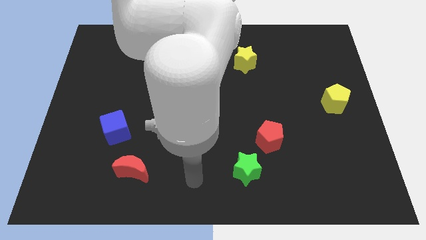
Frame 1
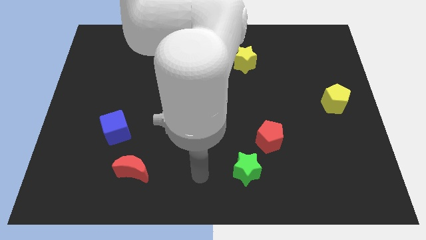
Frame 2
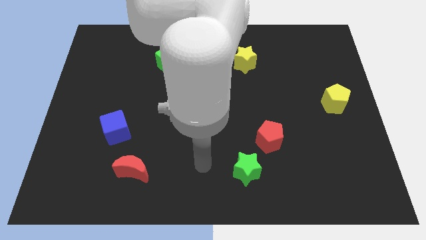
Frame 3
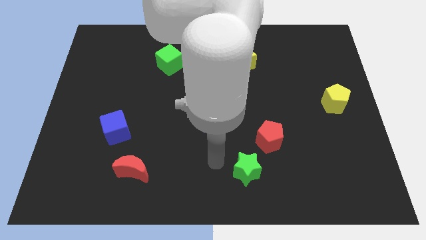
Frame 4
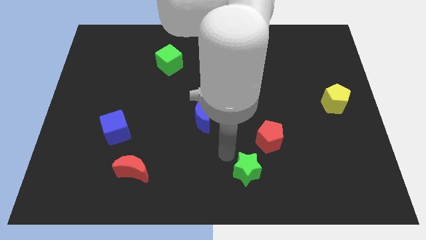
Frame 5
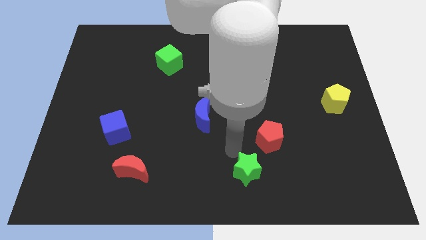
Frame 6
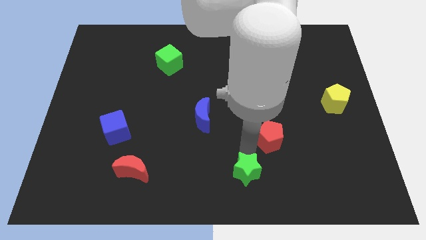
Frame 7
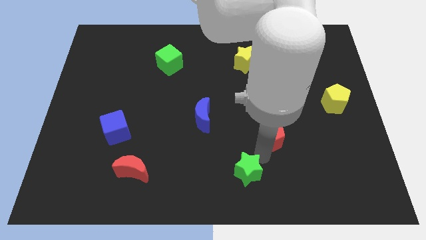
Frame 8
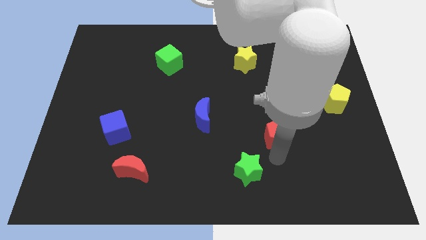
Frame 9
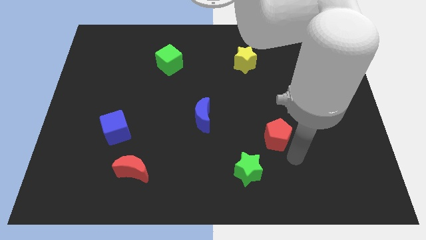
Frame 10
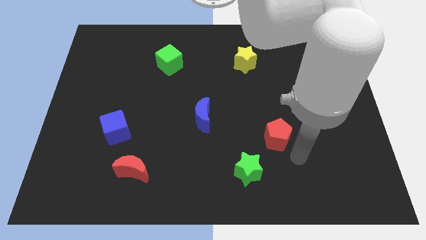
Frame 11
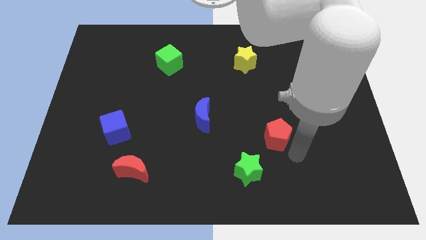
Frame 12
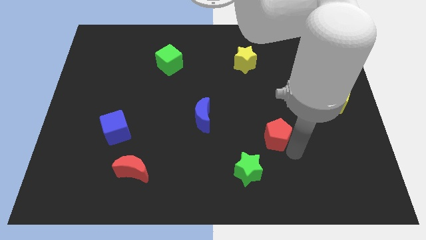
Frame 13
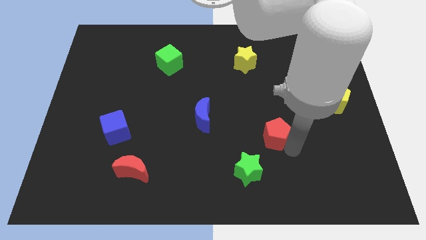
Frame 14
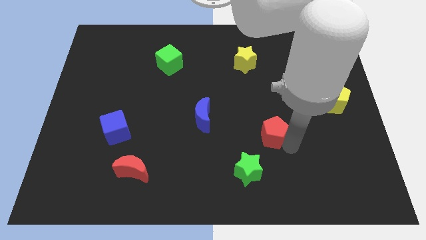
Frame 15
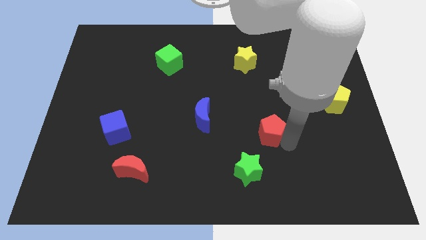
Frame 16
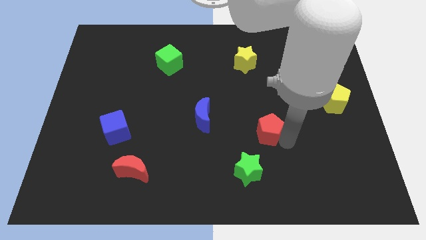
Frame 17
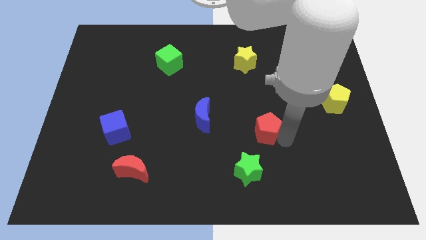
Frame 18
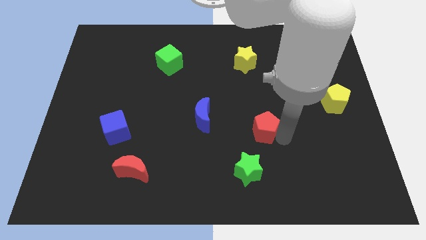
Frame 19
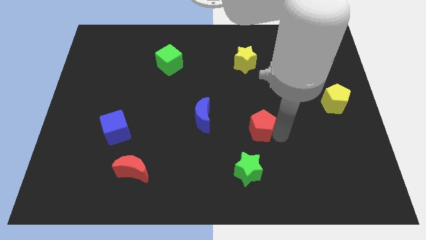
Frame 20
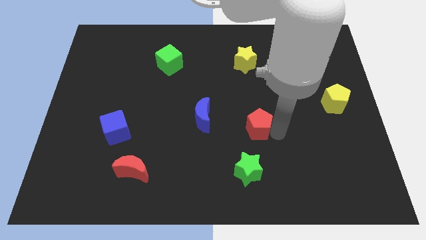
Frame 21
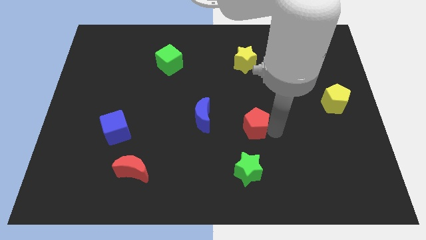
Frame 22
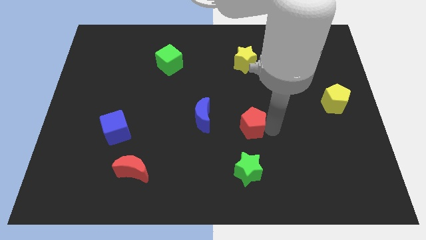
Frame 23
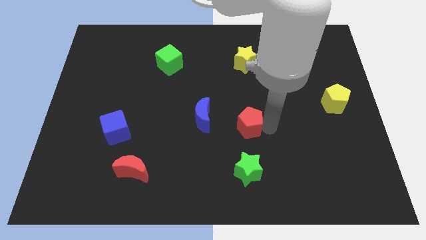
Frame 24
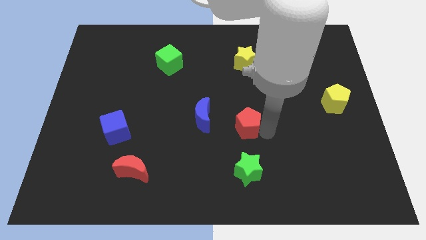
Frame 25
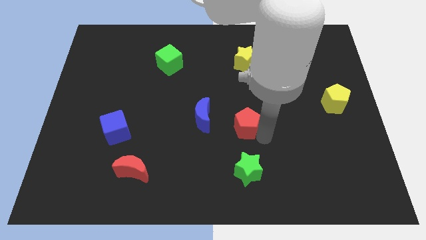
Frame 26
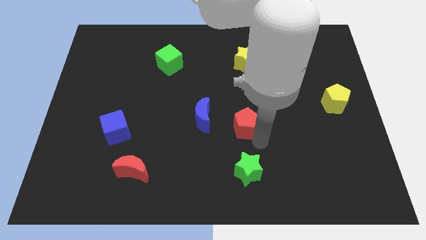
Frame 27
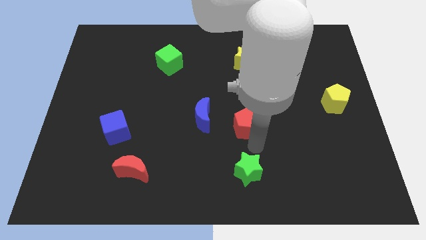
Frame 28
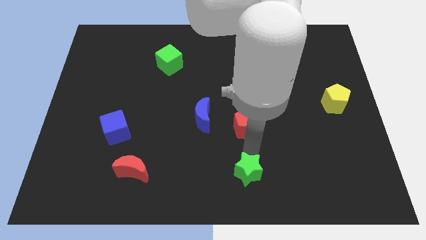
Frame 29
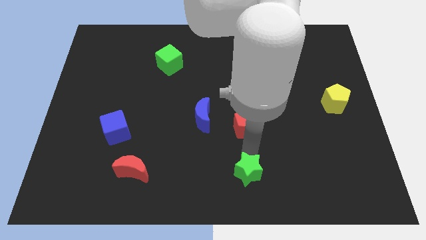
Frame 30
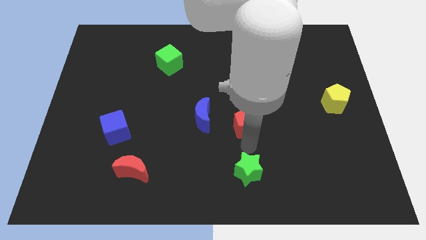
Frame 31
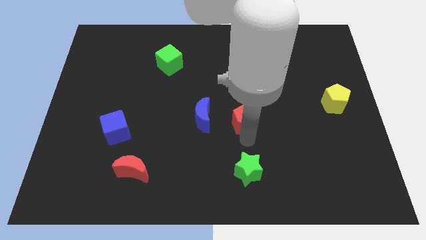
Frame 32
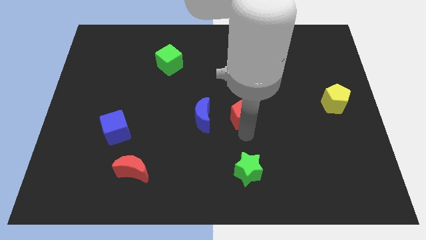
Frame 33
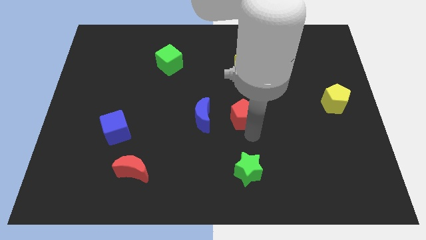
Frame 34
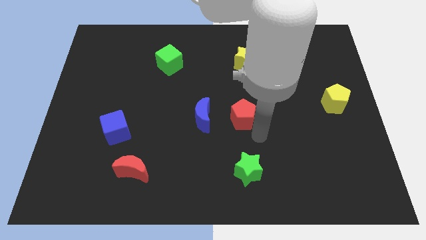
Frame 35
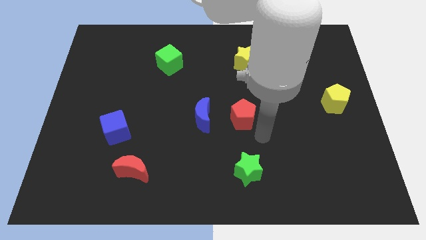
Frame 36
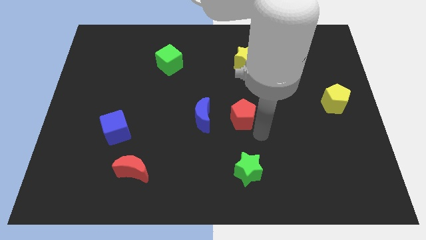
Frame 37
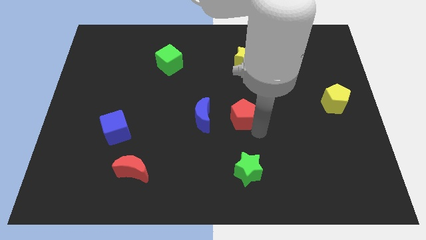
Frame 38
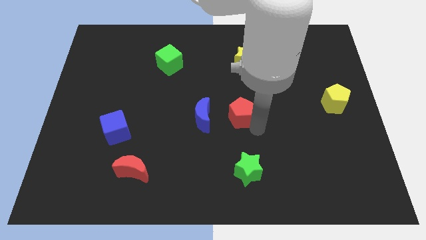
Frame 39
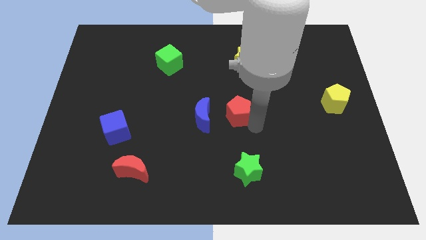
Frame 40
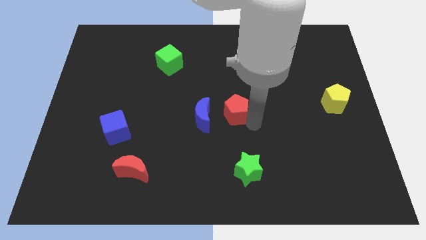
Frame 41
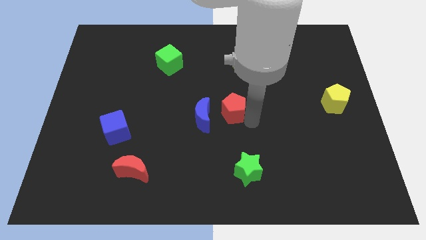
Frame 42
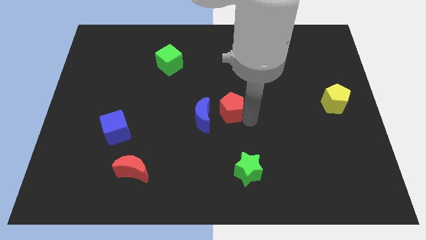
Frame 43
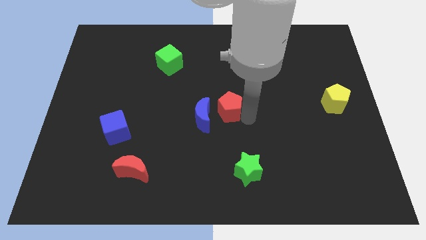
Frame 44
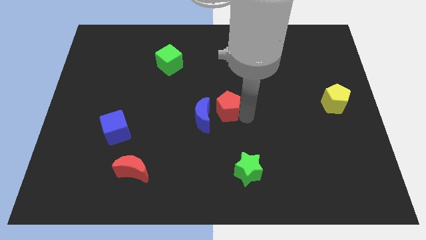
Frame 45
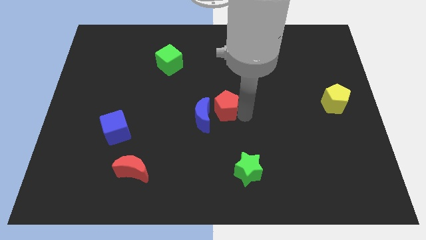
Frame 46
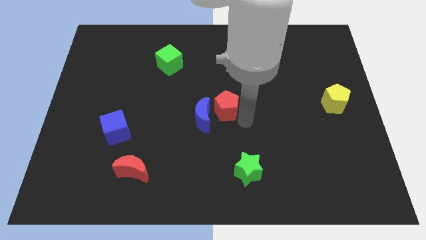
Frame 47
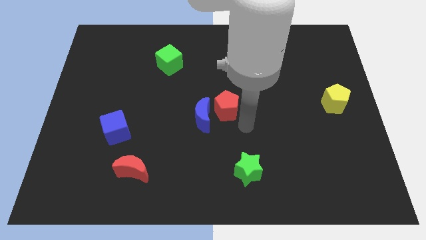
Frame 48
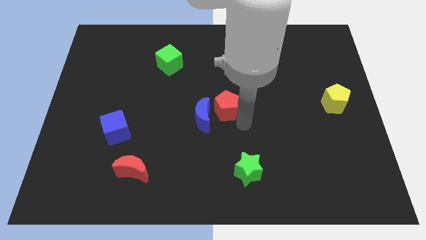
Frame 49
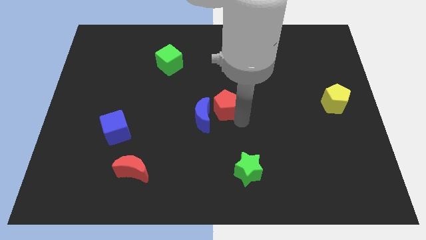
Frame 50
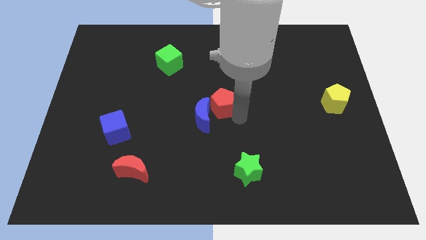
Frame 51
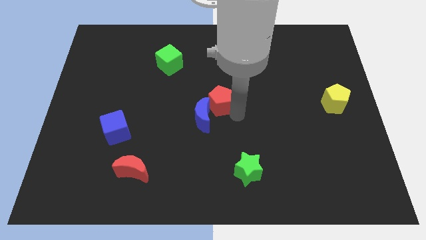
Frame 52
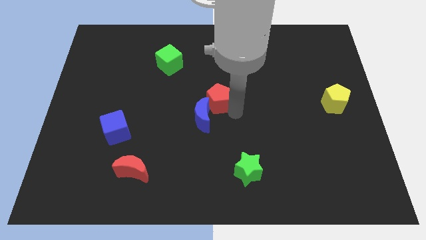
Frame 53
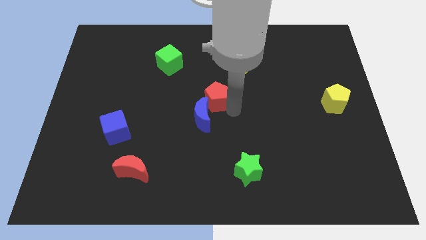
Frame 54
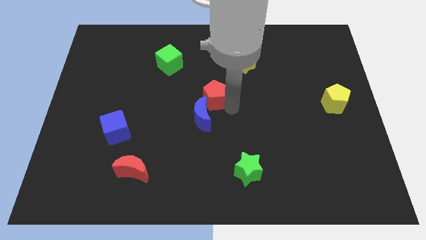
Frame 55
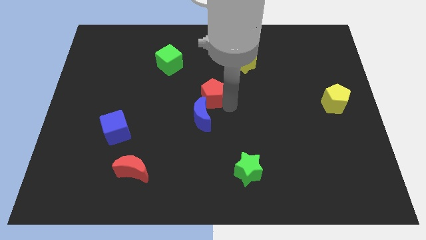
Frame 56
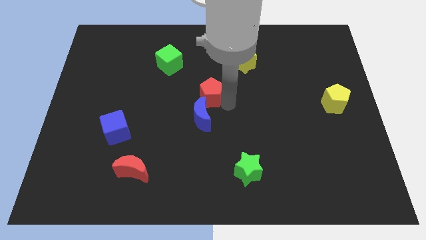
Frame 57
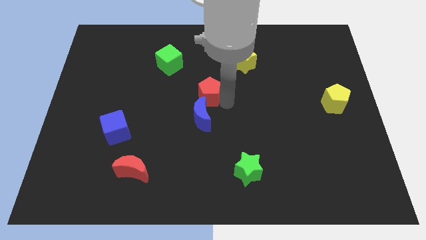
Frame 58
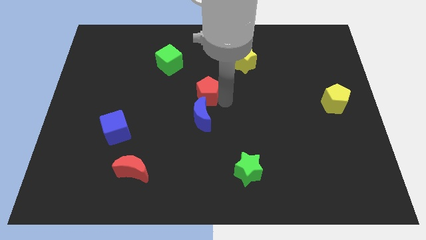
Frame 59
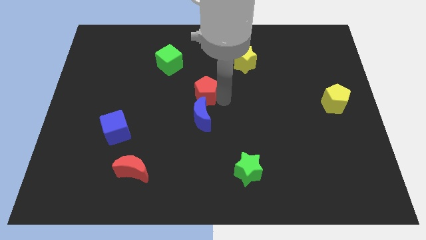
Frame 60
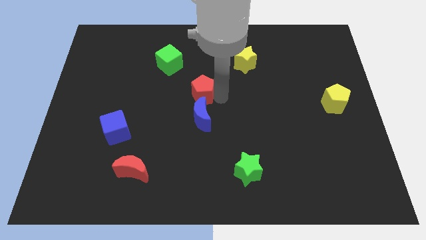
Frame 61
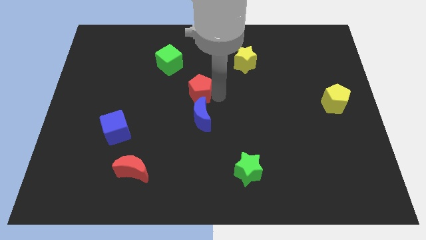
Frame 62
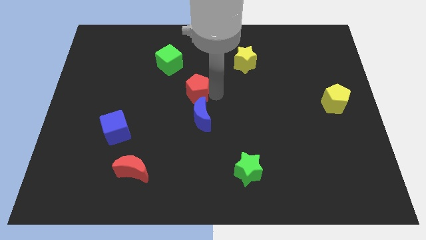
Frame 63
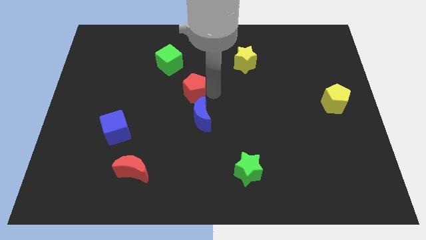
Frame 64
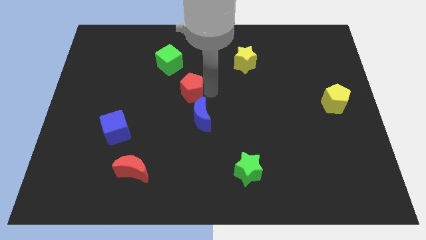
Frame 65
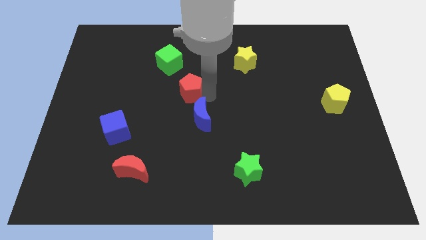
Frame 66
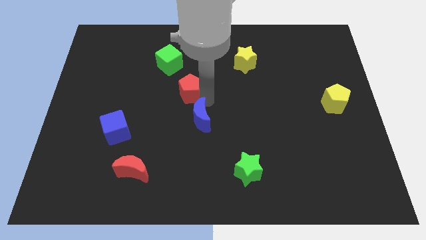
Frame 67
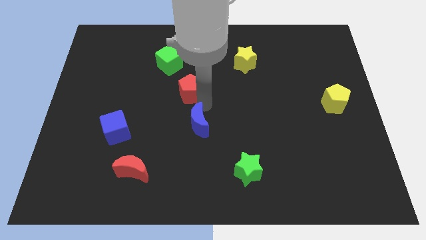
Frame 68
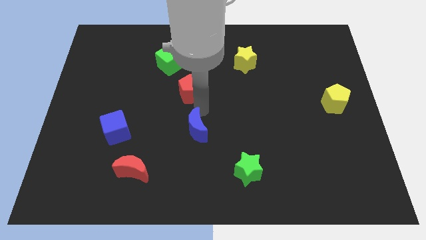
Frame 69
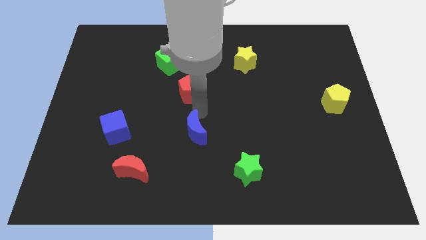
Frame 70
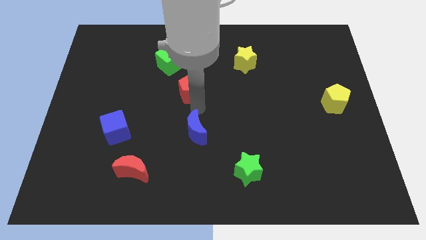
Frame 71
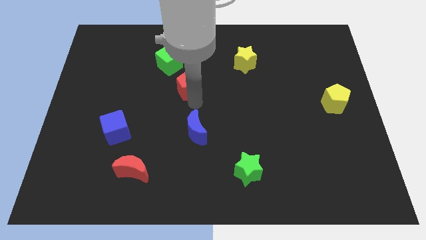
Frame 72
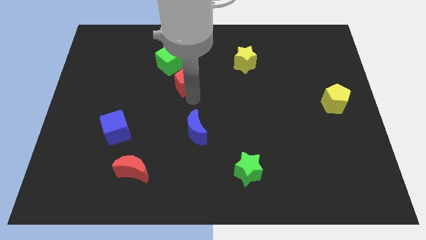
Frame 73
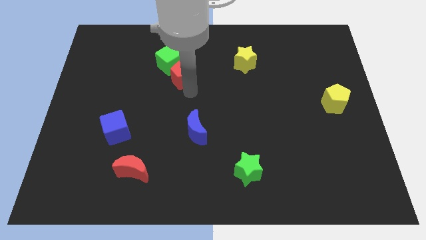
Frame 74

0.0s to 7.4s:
move the red pentagon next to the green cube
